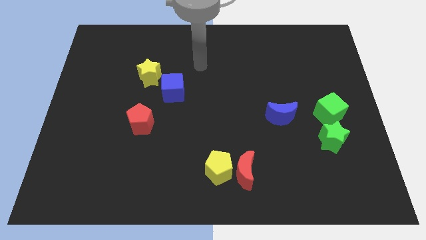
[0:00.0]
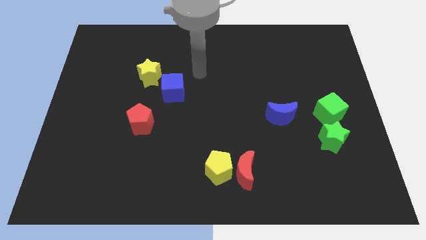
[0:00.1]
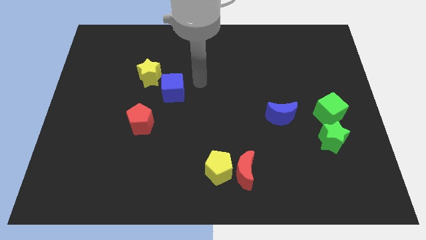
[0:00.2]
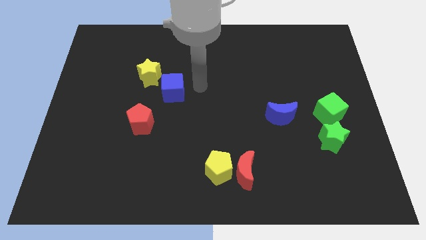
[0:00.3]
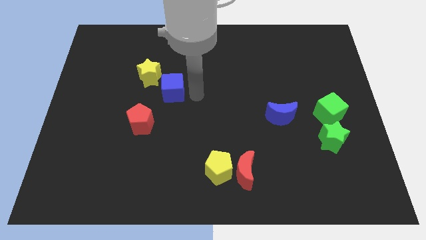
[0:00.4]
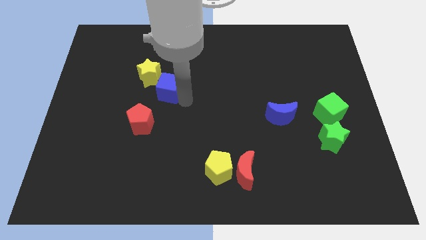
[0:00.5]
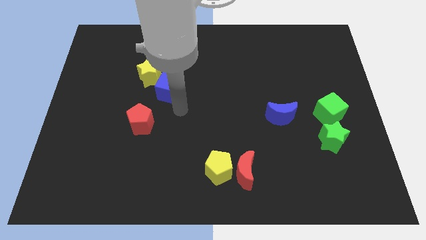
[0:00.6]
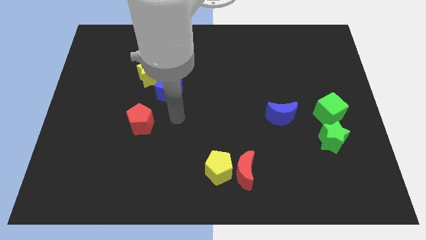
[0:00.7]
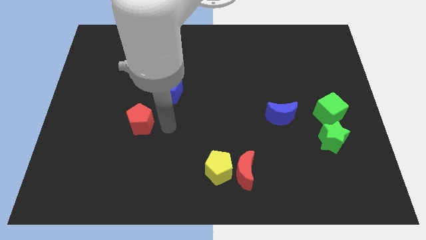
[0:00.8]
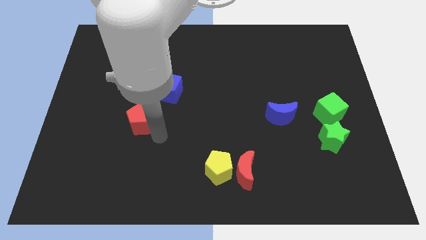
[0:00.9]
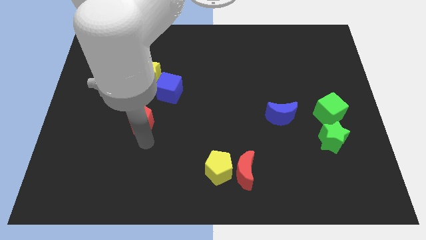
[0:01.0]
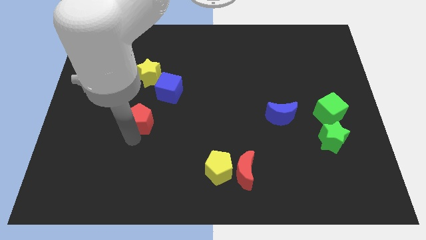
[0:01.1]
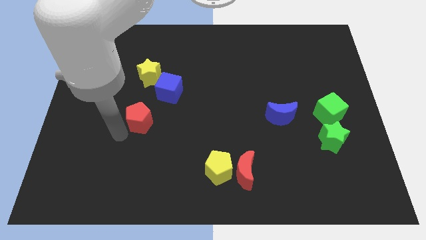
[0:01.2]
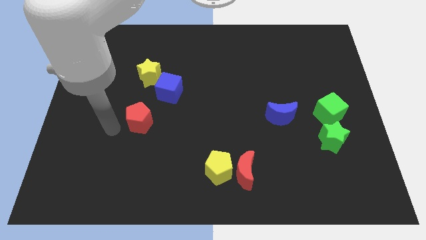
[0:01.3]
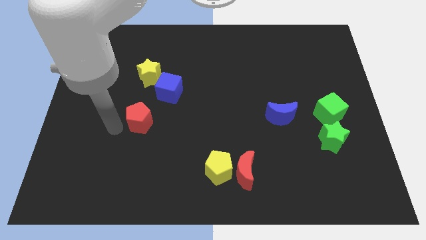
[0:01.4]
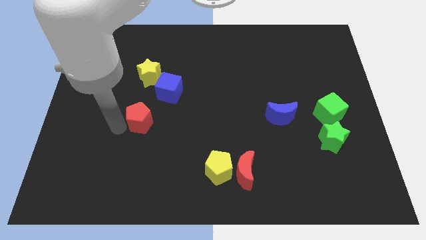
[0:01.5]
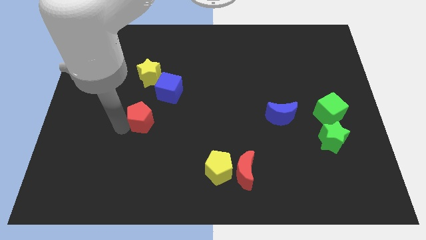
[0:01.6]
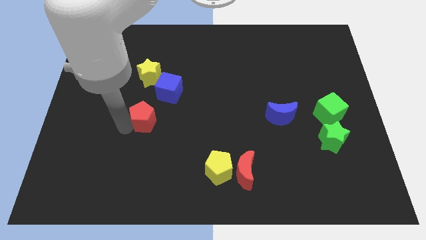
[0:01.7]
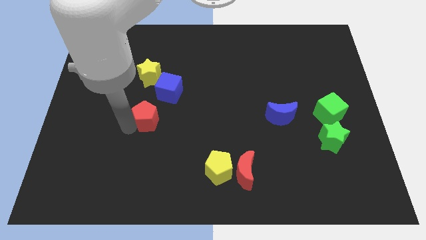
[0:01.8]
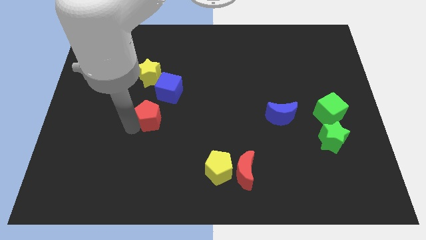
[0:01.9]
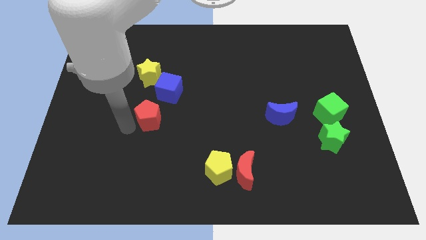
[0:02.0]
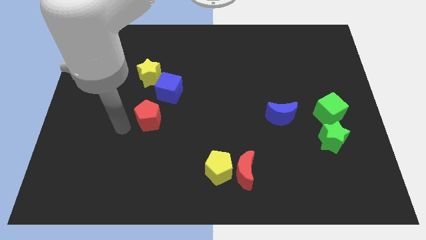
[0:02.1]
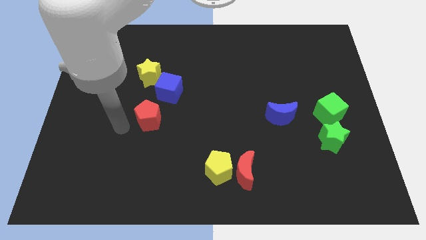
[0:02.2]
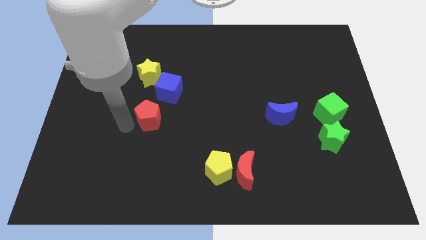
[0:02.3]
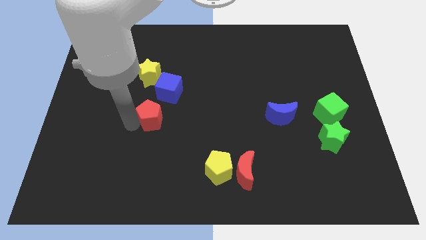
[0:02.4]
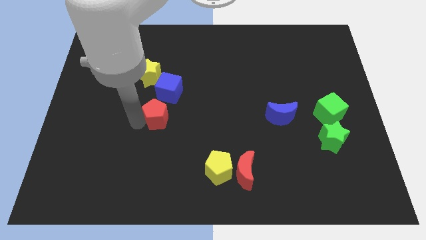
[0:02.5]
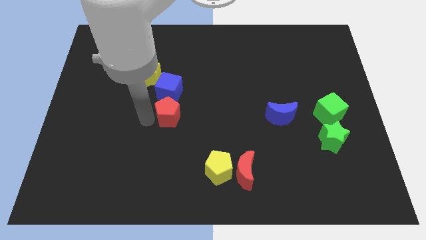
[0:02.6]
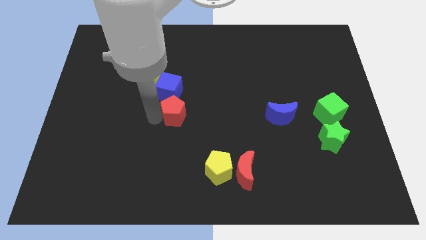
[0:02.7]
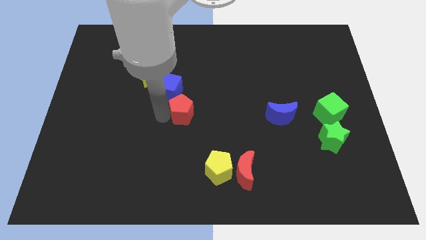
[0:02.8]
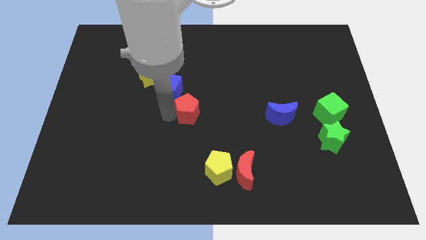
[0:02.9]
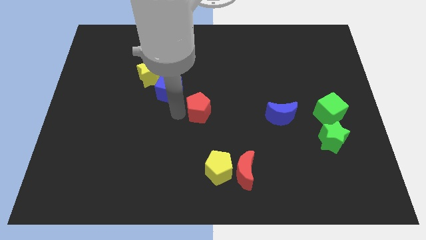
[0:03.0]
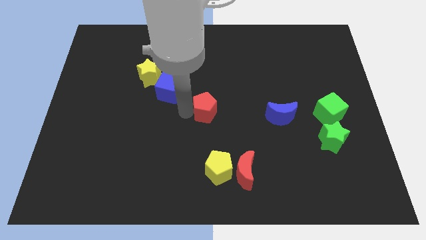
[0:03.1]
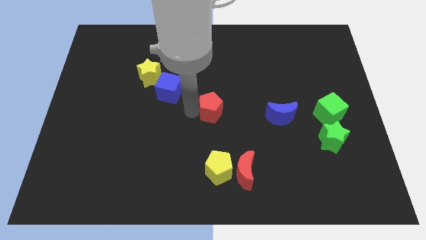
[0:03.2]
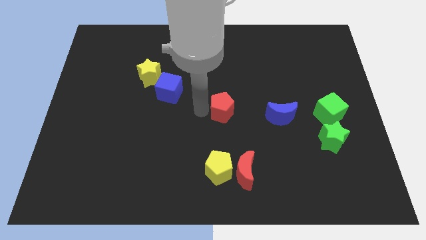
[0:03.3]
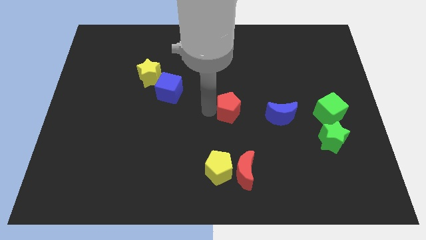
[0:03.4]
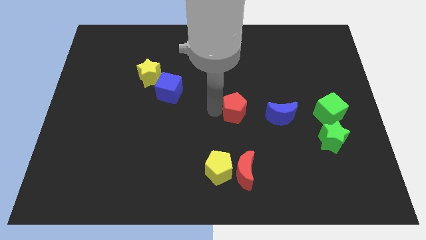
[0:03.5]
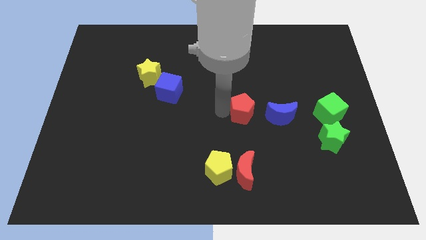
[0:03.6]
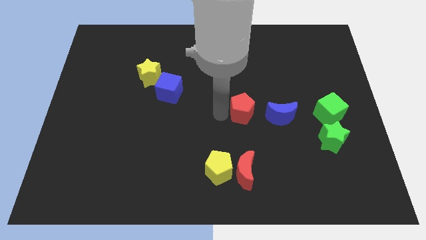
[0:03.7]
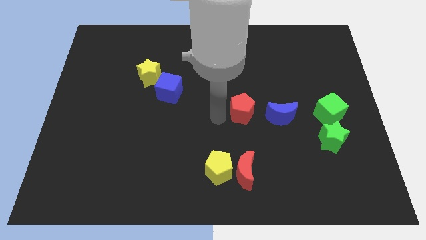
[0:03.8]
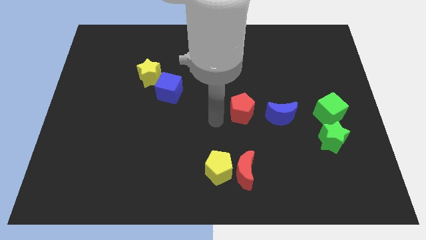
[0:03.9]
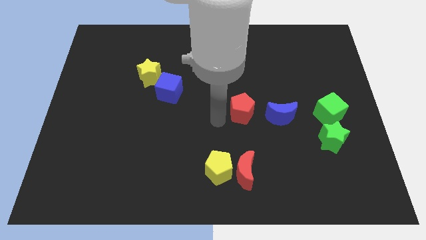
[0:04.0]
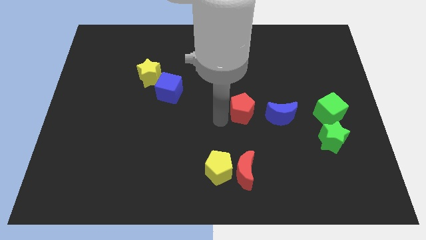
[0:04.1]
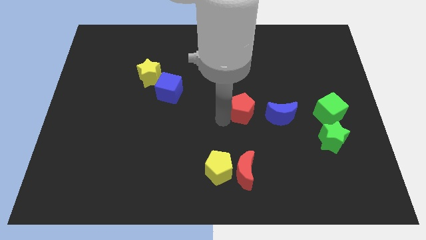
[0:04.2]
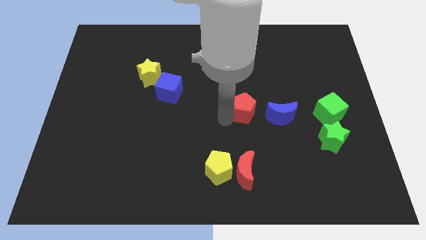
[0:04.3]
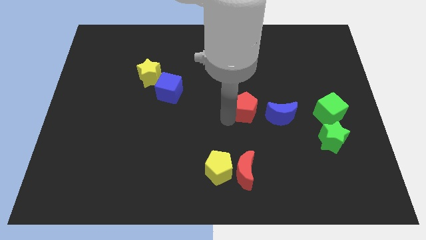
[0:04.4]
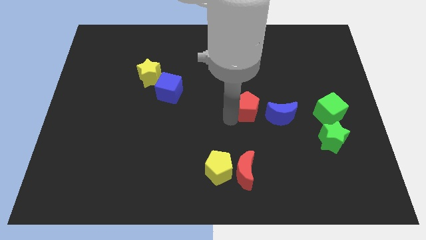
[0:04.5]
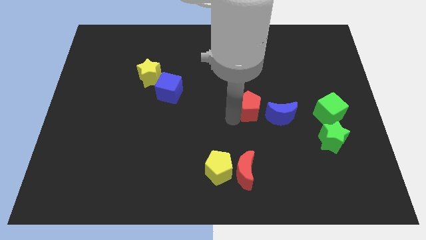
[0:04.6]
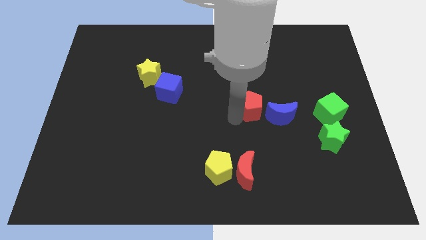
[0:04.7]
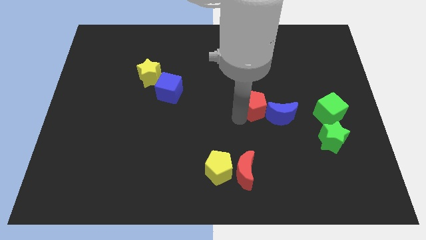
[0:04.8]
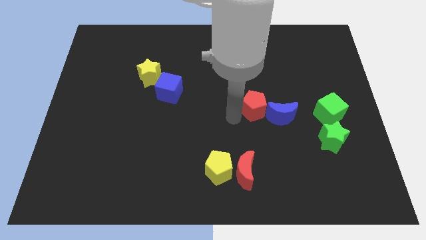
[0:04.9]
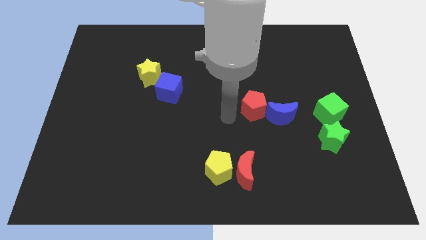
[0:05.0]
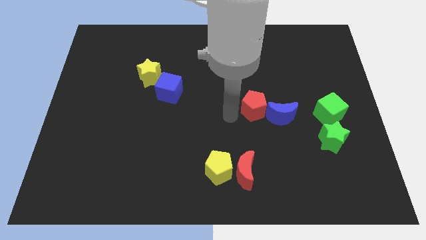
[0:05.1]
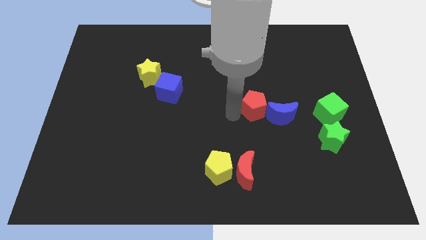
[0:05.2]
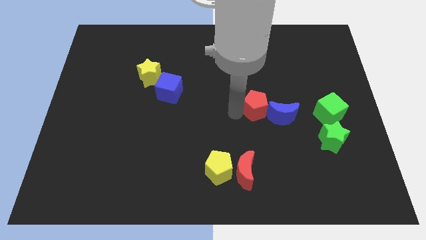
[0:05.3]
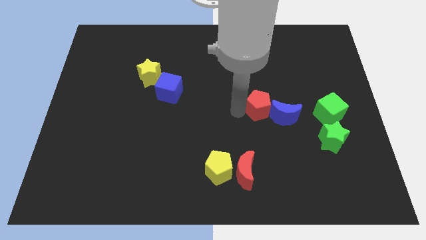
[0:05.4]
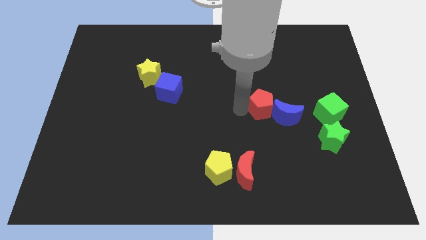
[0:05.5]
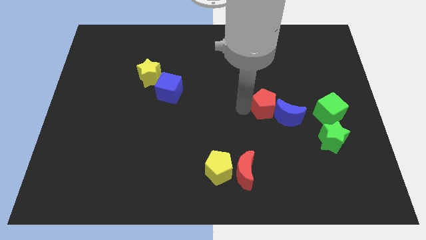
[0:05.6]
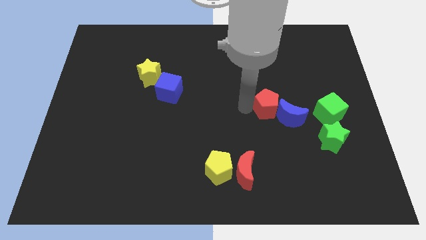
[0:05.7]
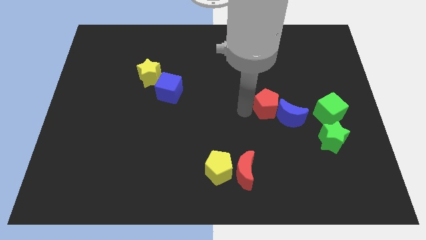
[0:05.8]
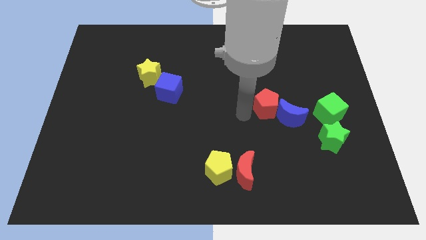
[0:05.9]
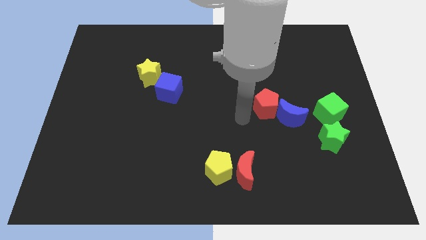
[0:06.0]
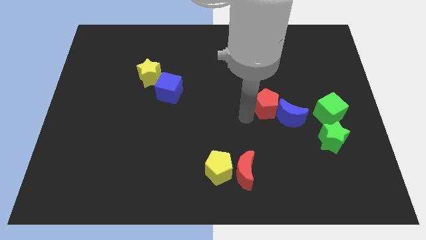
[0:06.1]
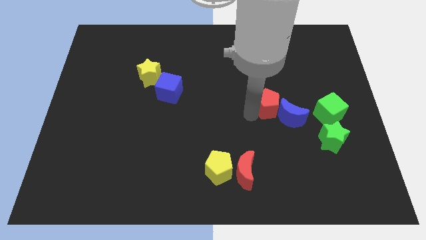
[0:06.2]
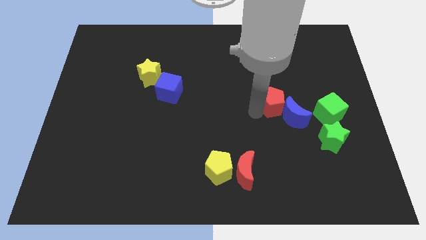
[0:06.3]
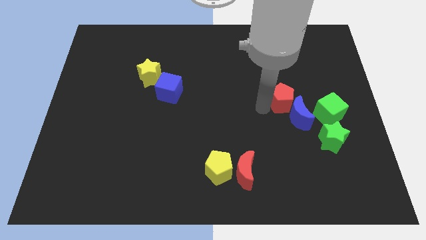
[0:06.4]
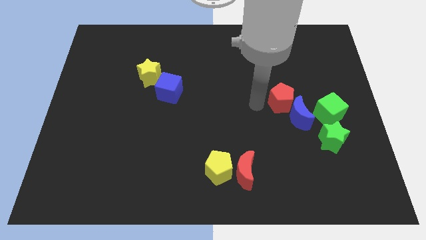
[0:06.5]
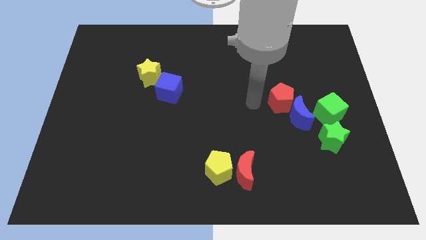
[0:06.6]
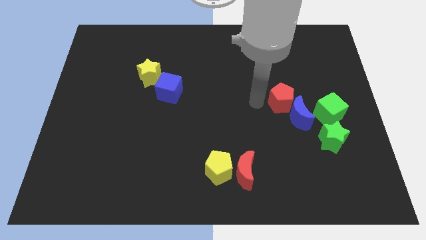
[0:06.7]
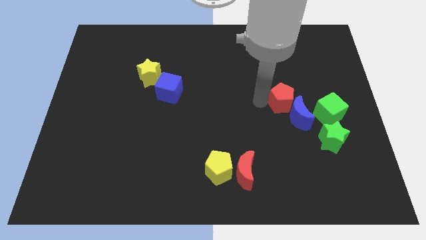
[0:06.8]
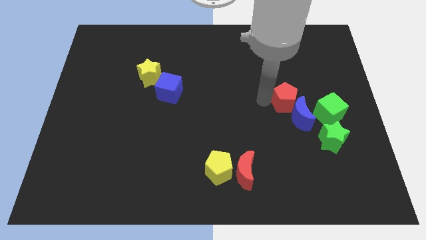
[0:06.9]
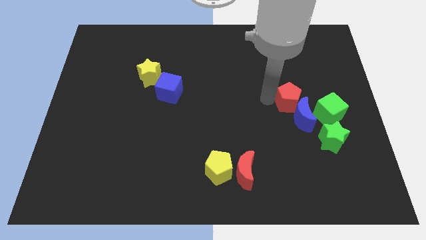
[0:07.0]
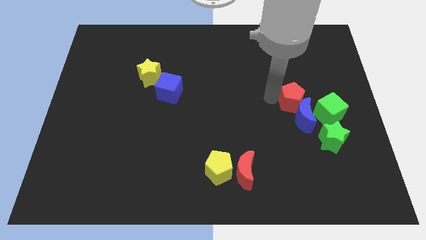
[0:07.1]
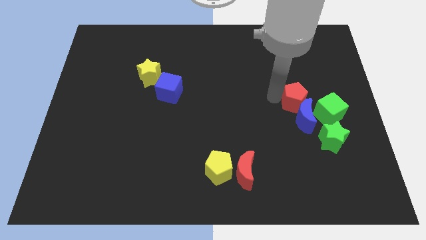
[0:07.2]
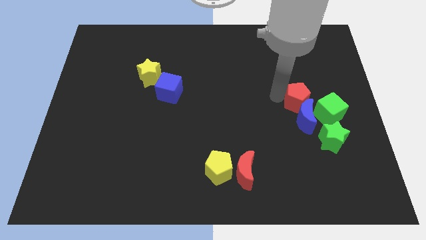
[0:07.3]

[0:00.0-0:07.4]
slide the red pentagon diagonally up and to the right of the blue moon
